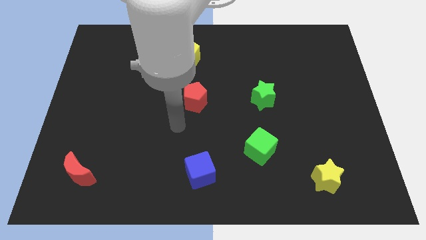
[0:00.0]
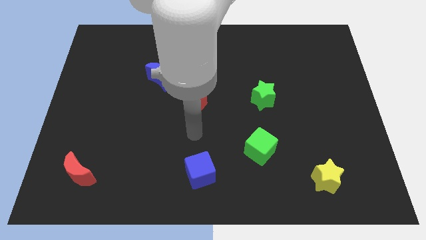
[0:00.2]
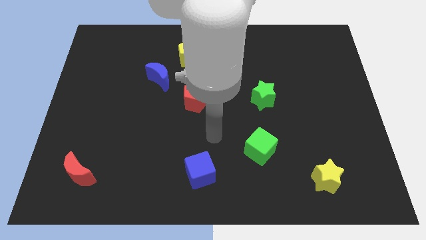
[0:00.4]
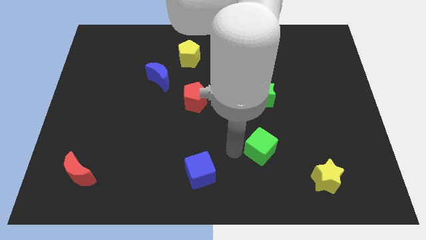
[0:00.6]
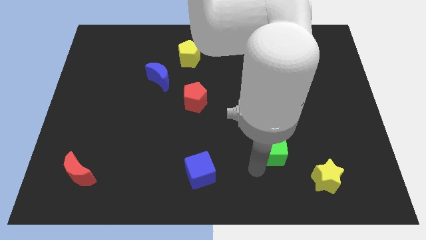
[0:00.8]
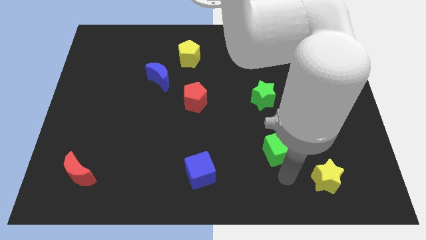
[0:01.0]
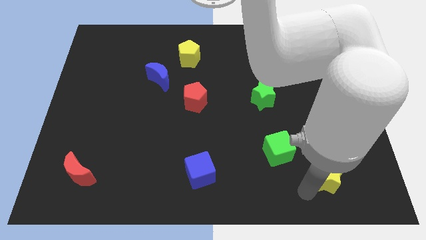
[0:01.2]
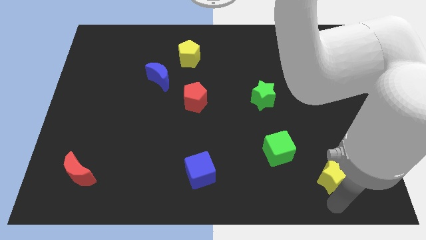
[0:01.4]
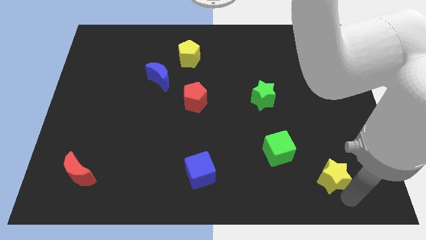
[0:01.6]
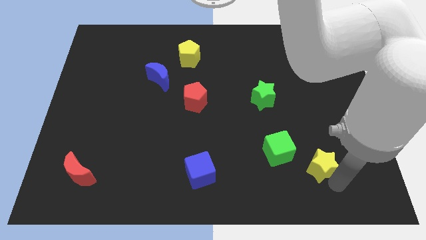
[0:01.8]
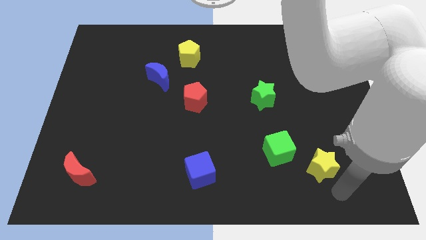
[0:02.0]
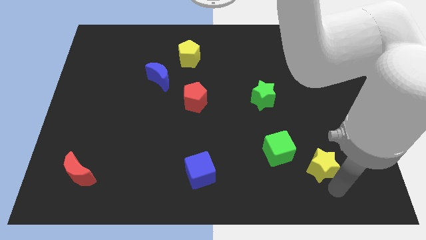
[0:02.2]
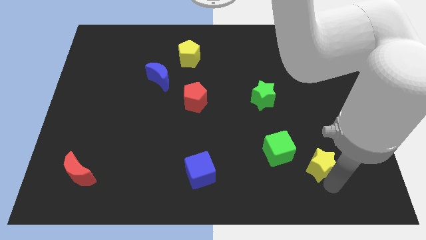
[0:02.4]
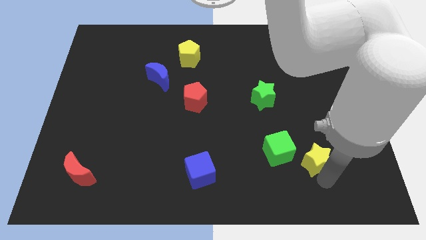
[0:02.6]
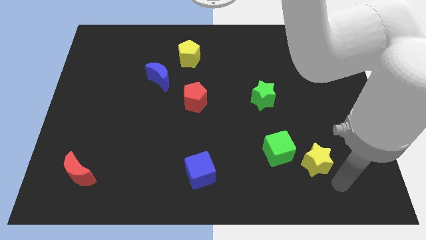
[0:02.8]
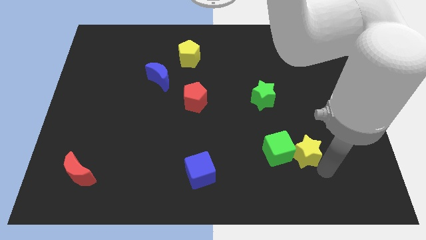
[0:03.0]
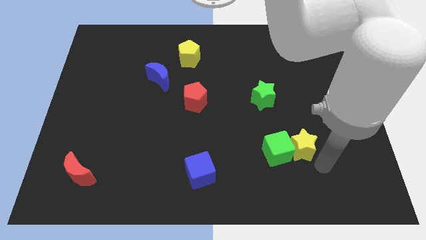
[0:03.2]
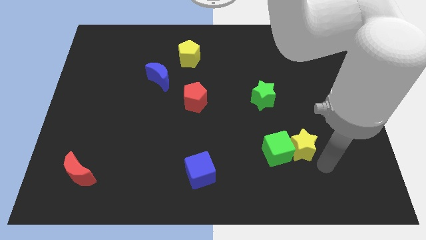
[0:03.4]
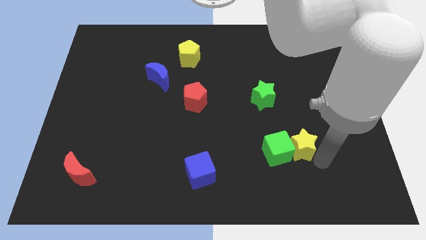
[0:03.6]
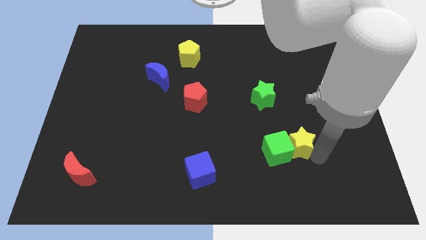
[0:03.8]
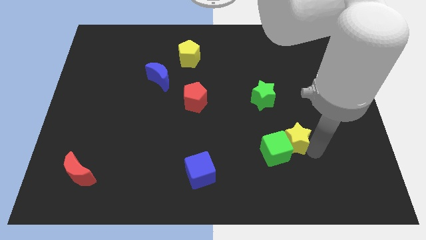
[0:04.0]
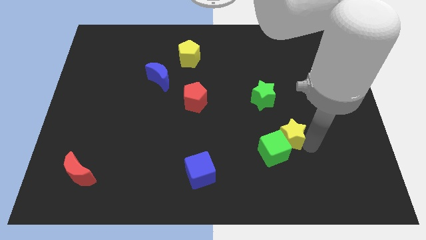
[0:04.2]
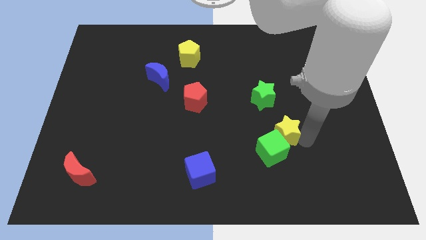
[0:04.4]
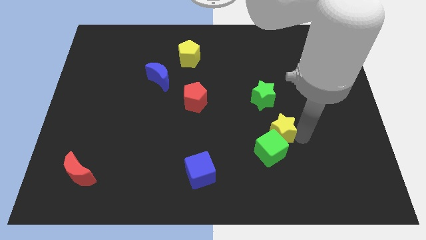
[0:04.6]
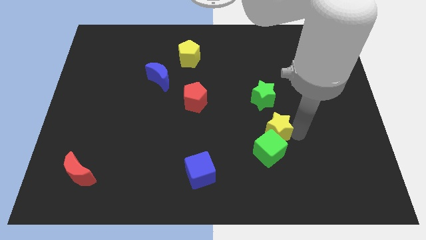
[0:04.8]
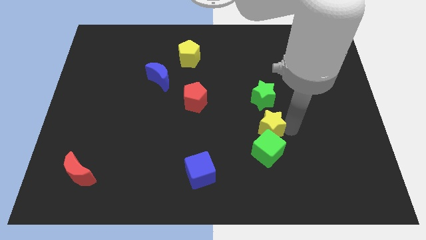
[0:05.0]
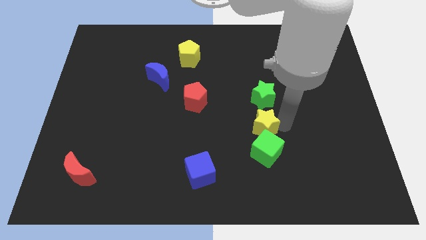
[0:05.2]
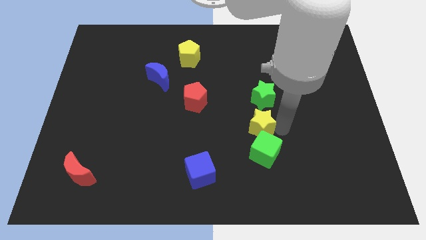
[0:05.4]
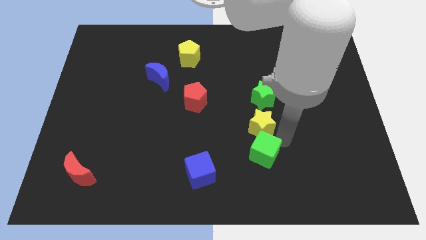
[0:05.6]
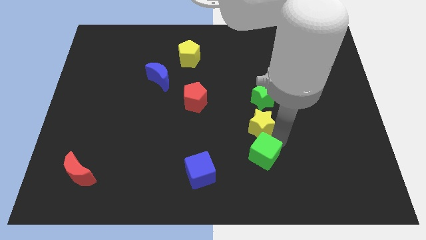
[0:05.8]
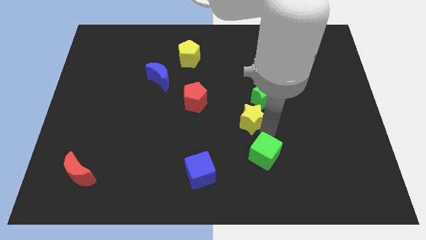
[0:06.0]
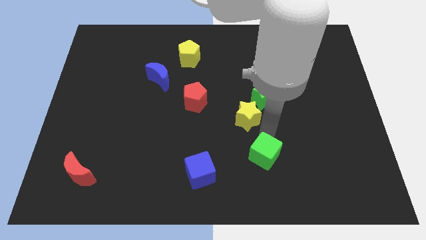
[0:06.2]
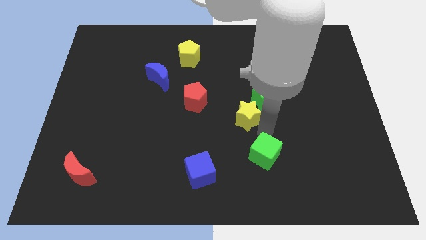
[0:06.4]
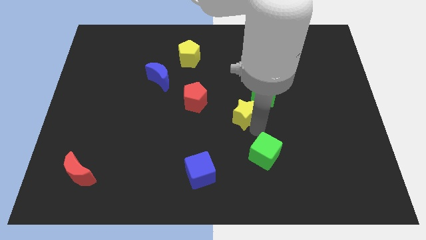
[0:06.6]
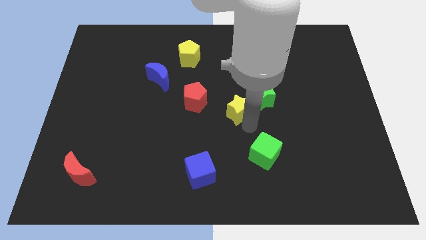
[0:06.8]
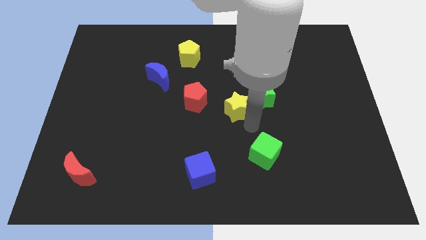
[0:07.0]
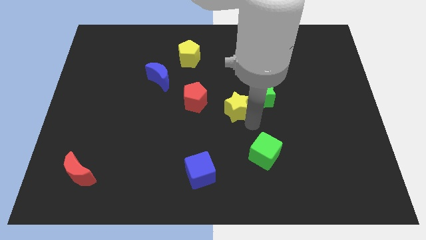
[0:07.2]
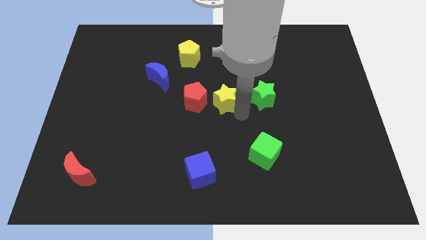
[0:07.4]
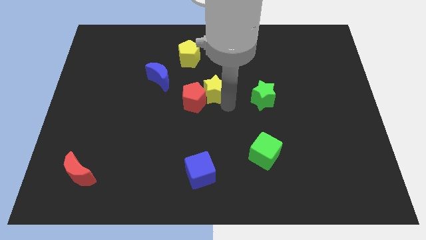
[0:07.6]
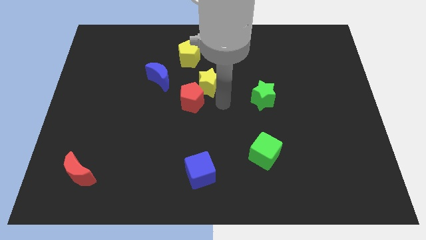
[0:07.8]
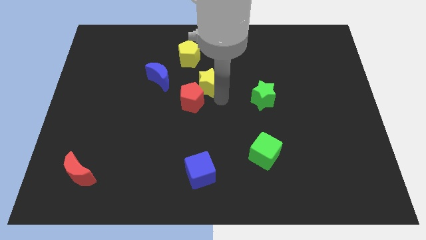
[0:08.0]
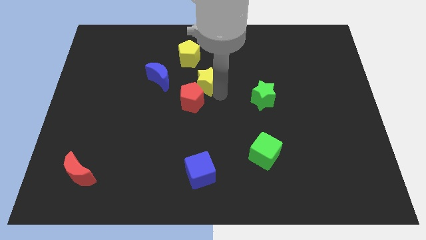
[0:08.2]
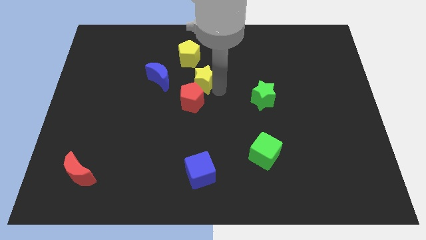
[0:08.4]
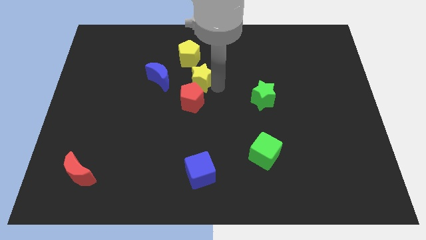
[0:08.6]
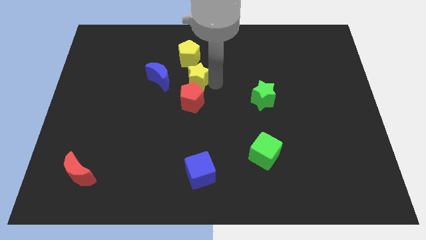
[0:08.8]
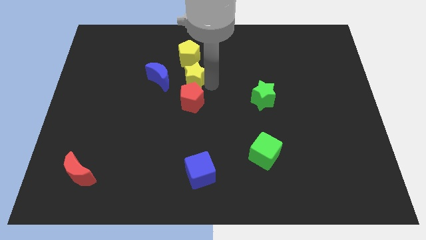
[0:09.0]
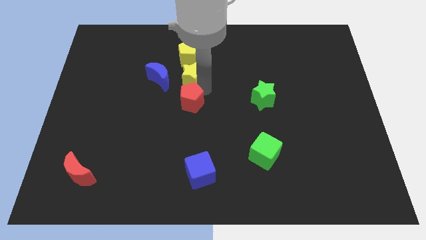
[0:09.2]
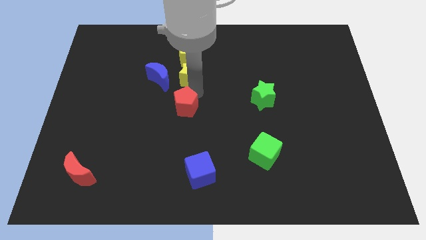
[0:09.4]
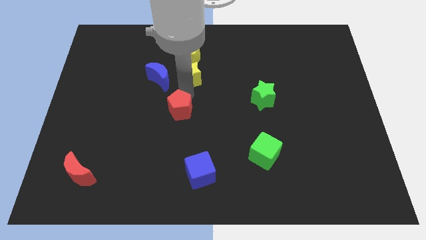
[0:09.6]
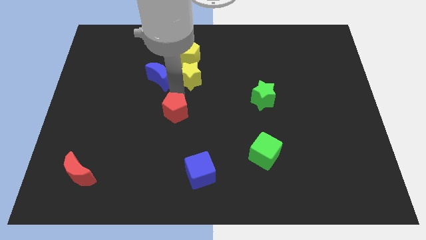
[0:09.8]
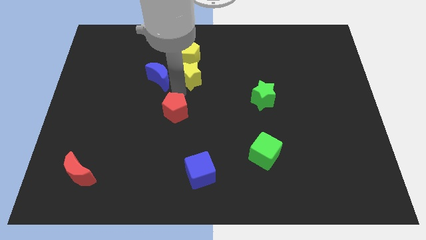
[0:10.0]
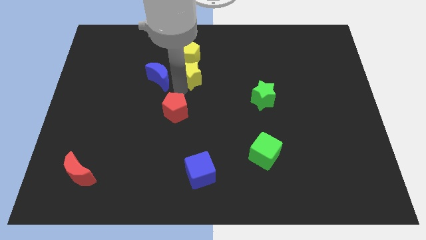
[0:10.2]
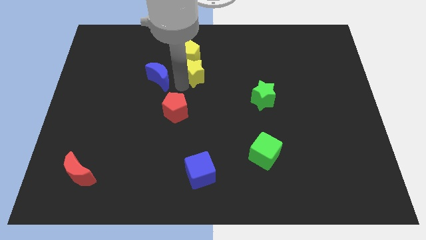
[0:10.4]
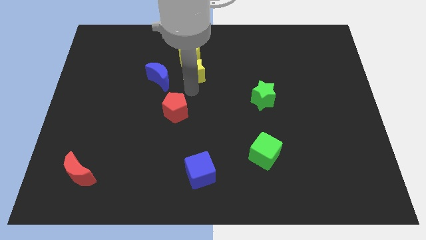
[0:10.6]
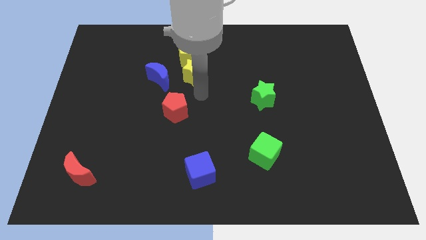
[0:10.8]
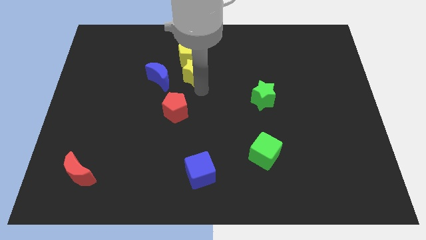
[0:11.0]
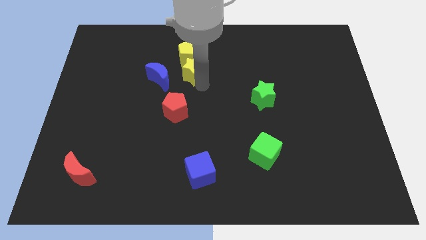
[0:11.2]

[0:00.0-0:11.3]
move the yellow star towards the yellow pentagon

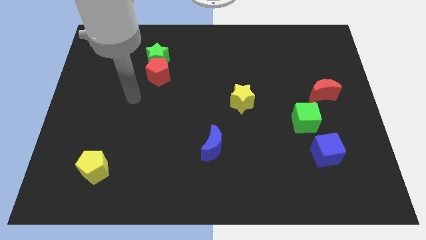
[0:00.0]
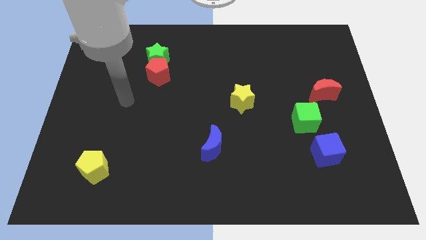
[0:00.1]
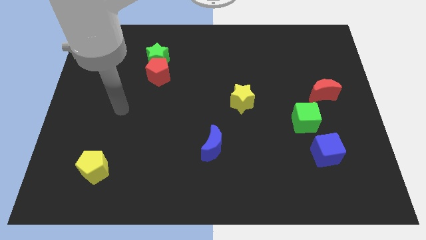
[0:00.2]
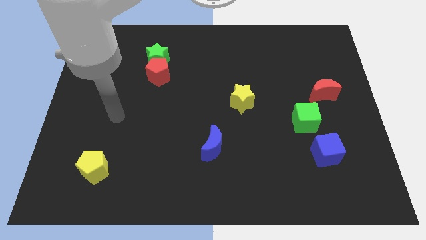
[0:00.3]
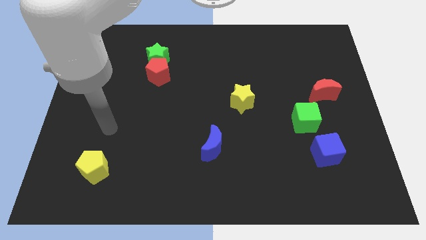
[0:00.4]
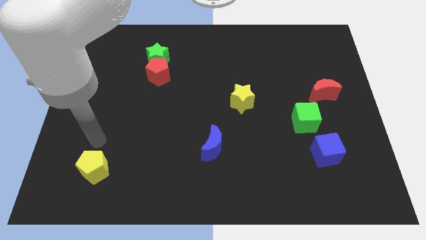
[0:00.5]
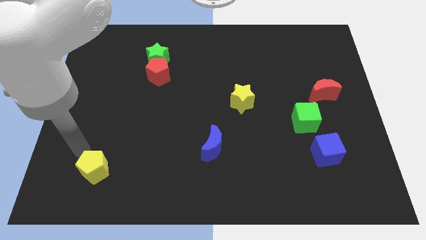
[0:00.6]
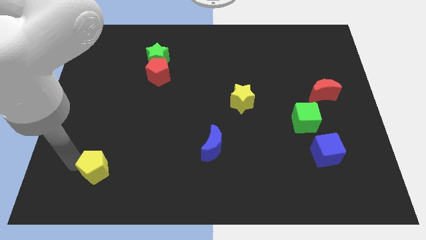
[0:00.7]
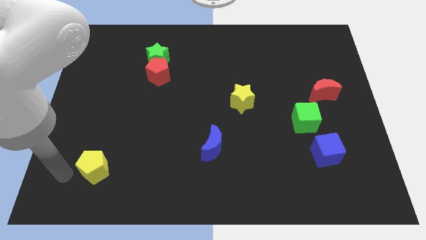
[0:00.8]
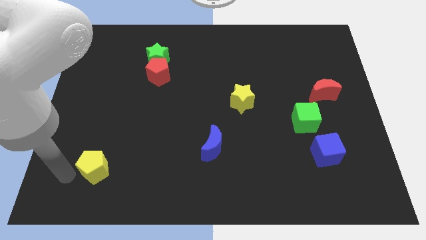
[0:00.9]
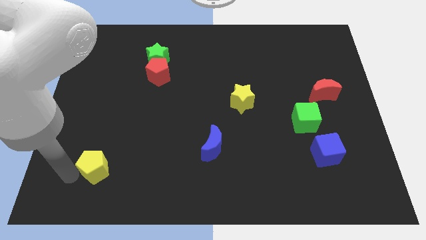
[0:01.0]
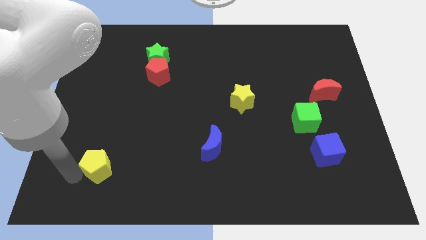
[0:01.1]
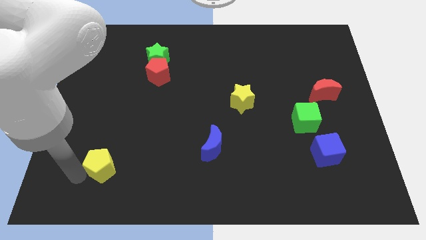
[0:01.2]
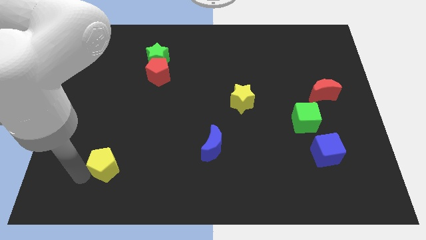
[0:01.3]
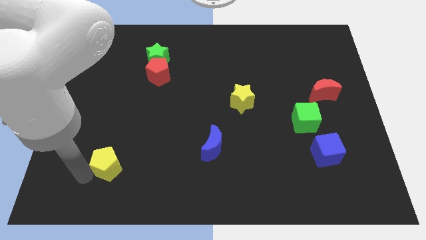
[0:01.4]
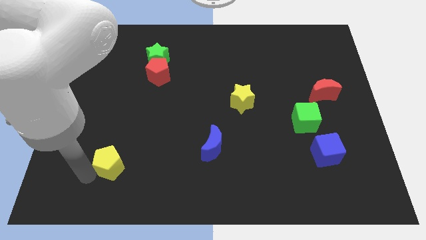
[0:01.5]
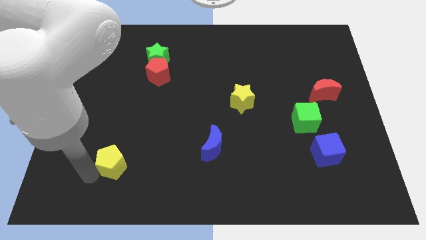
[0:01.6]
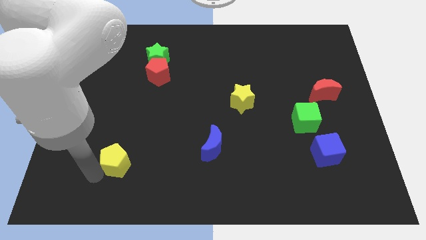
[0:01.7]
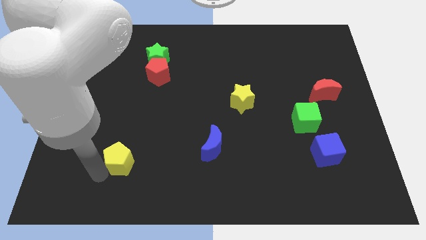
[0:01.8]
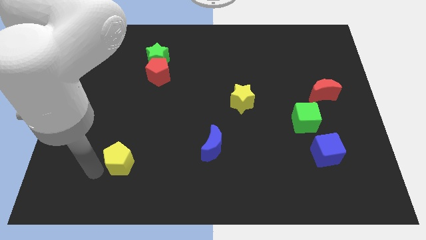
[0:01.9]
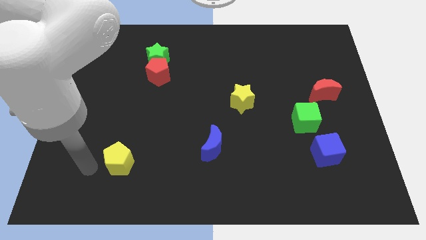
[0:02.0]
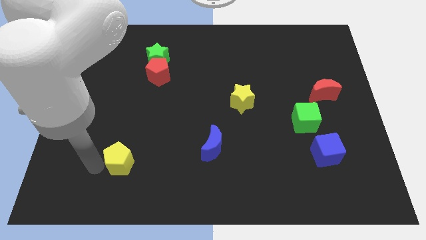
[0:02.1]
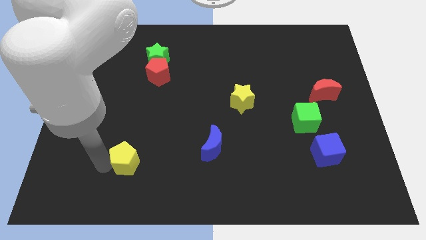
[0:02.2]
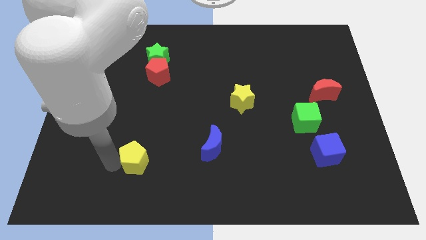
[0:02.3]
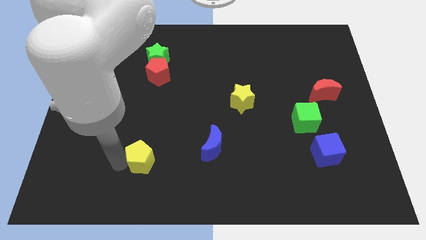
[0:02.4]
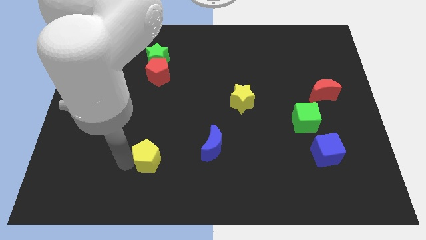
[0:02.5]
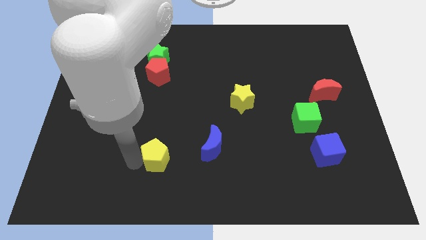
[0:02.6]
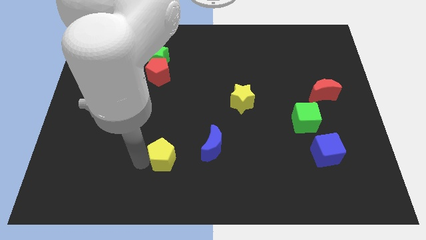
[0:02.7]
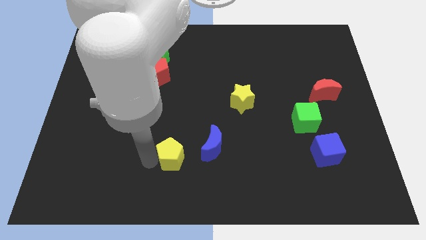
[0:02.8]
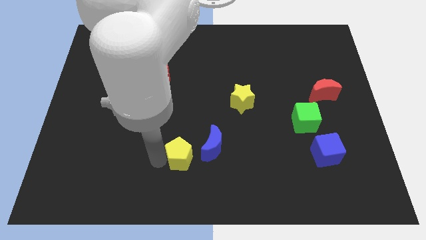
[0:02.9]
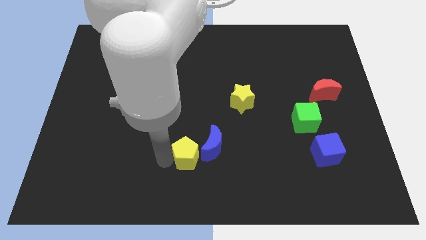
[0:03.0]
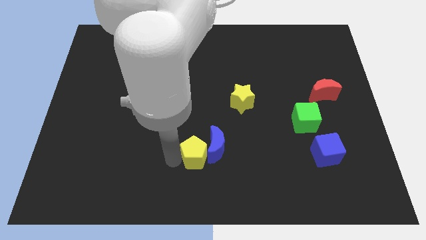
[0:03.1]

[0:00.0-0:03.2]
slide the yellow pentagon to the blue moon
